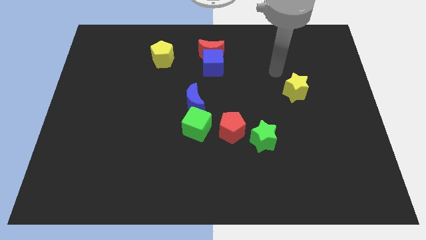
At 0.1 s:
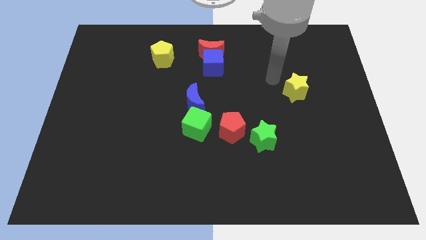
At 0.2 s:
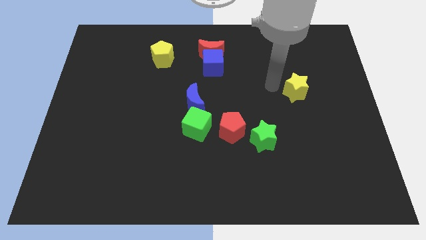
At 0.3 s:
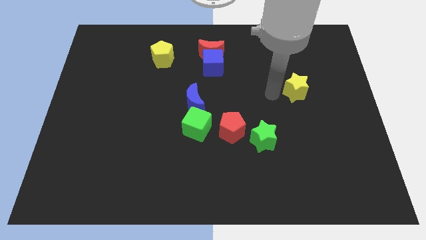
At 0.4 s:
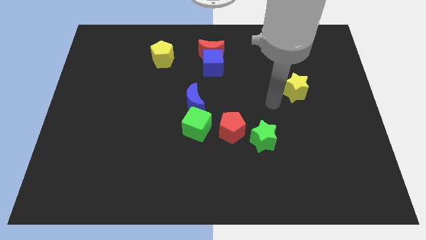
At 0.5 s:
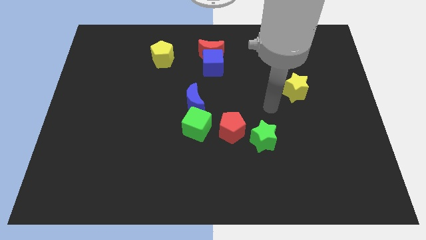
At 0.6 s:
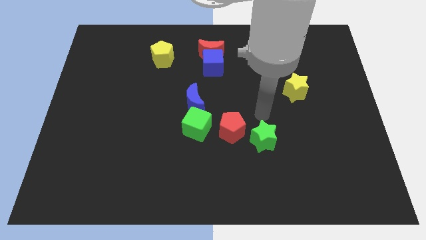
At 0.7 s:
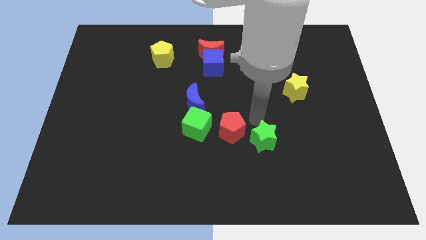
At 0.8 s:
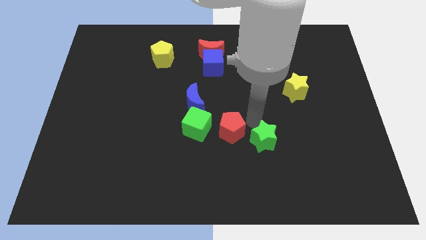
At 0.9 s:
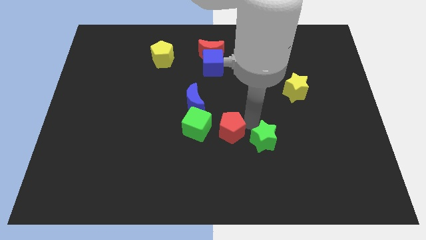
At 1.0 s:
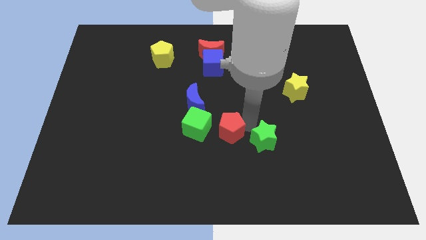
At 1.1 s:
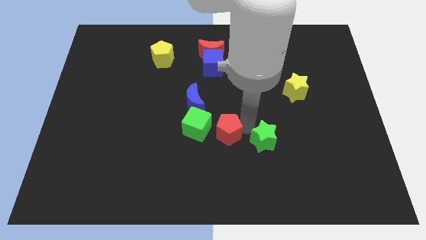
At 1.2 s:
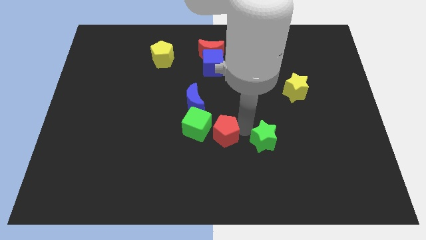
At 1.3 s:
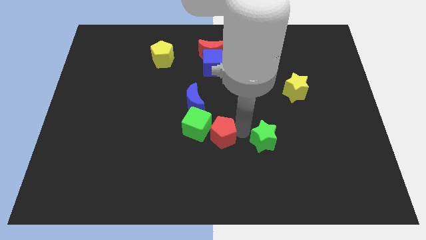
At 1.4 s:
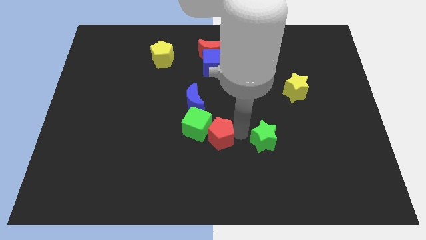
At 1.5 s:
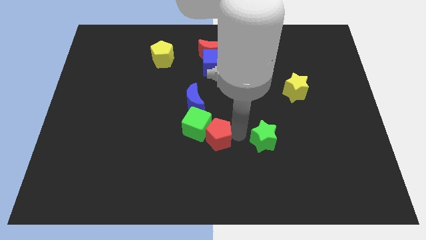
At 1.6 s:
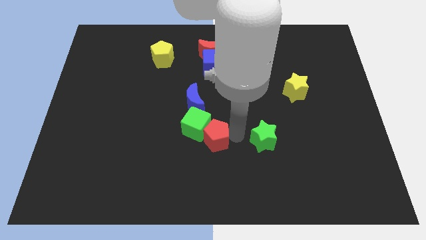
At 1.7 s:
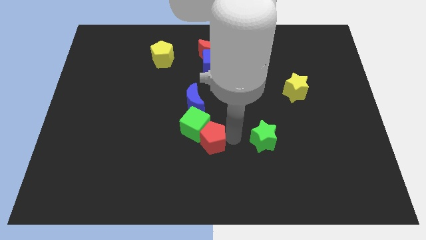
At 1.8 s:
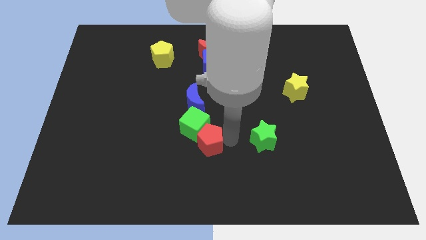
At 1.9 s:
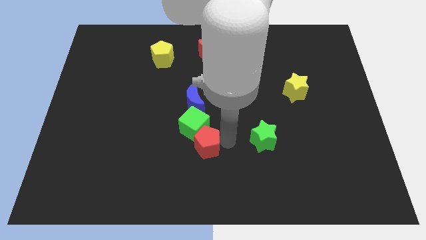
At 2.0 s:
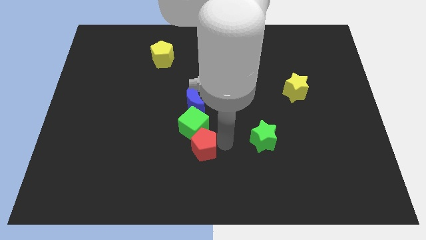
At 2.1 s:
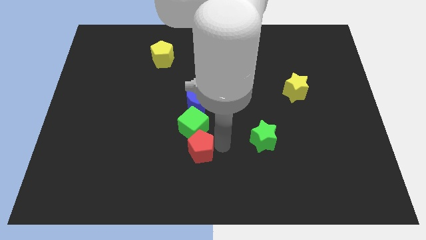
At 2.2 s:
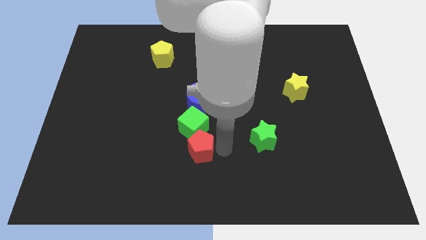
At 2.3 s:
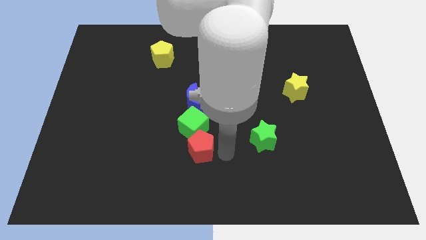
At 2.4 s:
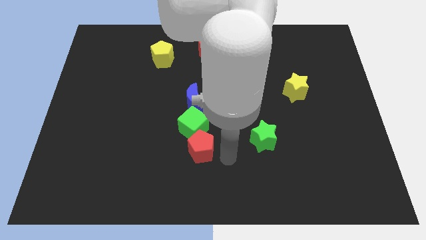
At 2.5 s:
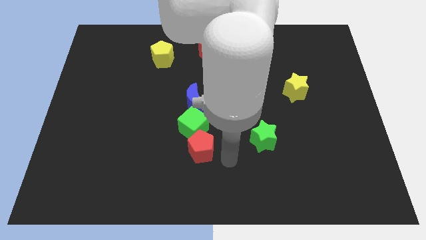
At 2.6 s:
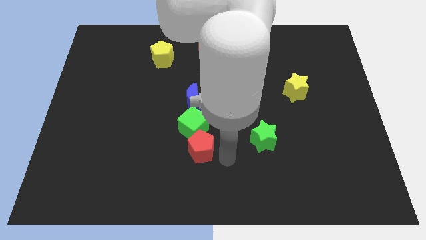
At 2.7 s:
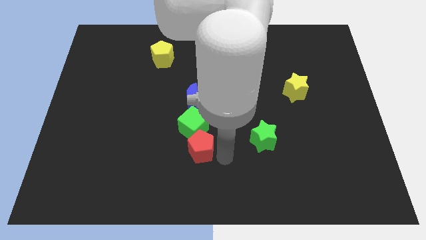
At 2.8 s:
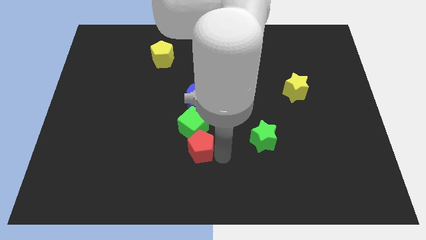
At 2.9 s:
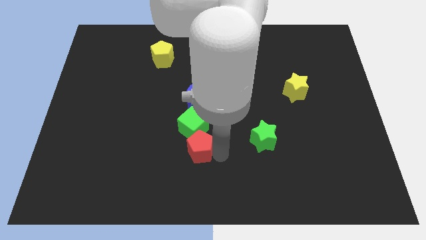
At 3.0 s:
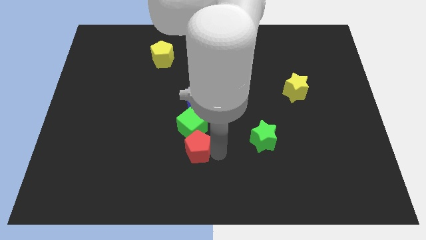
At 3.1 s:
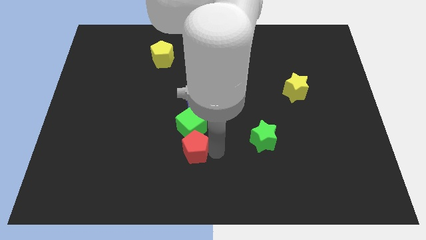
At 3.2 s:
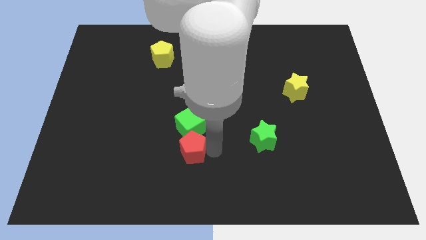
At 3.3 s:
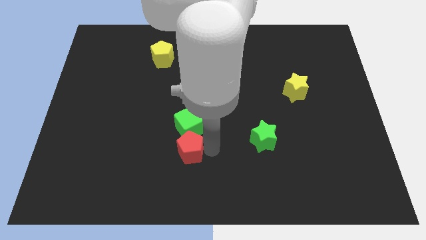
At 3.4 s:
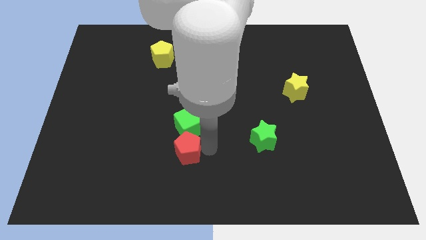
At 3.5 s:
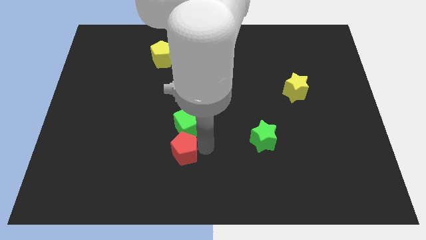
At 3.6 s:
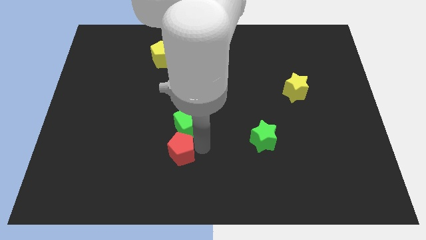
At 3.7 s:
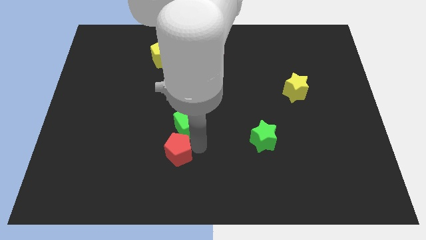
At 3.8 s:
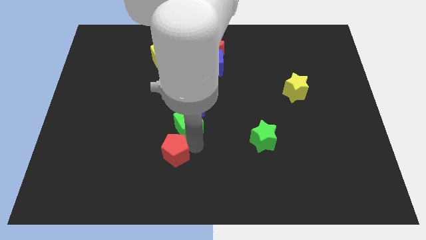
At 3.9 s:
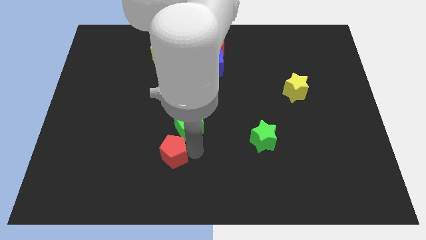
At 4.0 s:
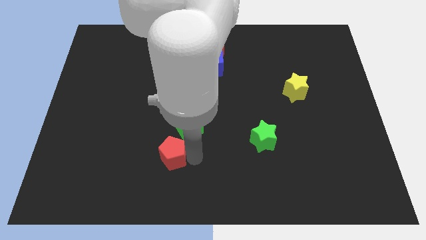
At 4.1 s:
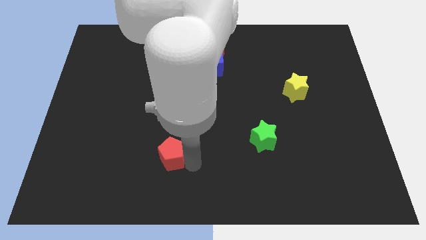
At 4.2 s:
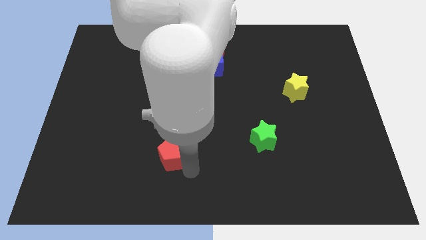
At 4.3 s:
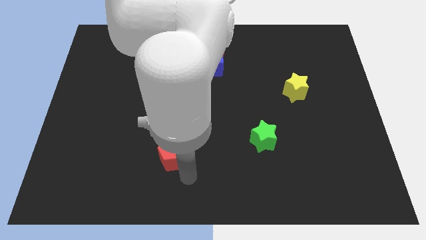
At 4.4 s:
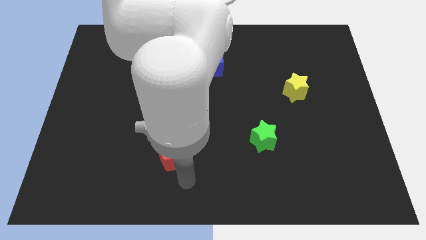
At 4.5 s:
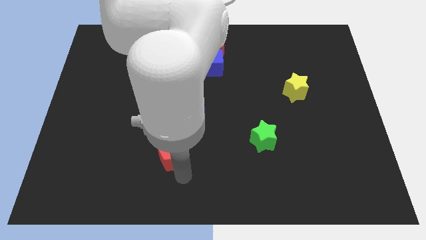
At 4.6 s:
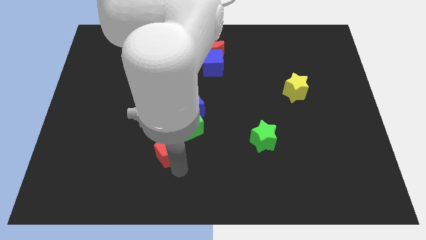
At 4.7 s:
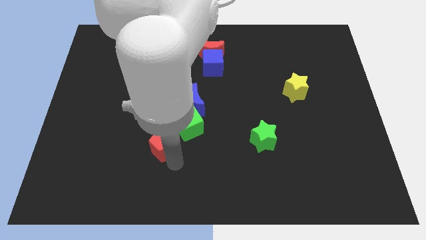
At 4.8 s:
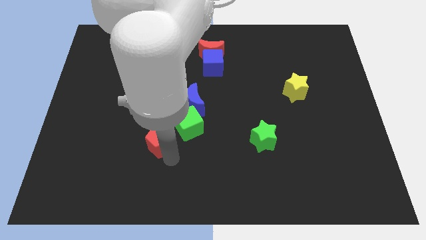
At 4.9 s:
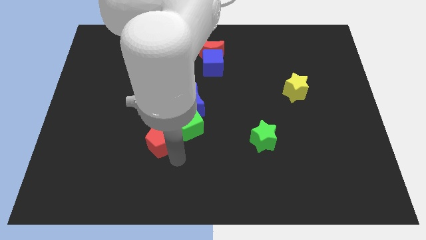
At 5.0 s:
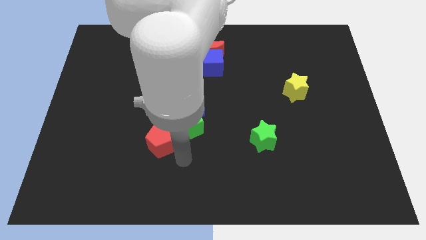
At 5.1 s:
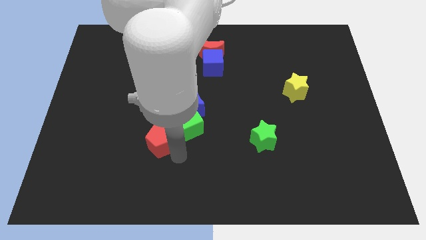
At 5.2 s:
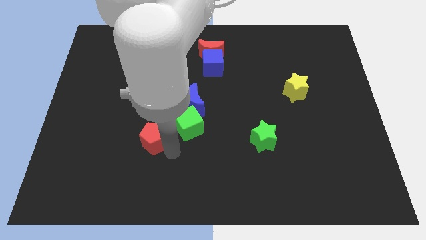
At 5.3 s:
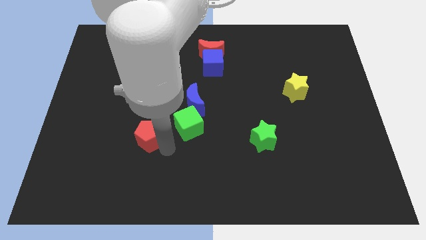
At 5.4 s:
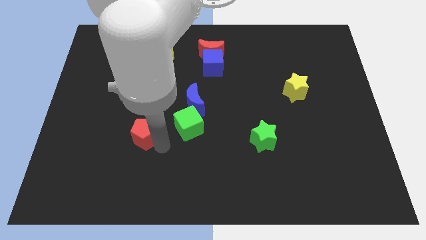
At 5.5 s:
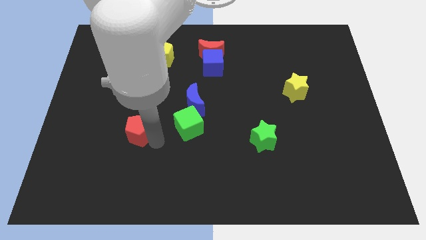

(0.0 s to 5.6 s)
move the red pentagon left

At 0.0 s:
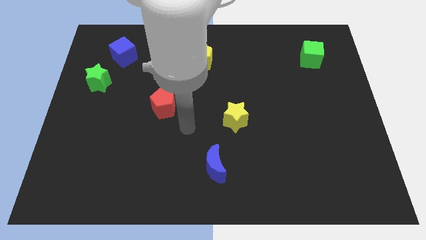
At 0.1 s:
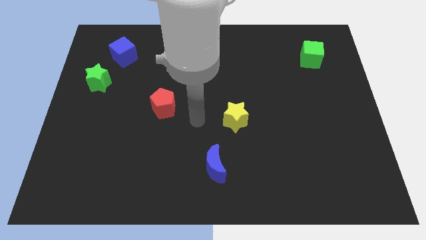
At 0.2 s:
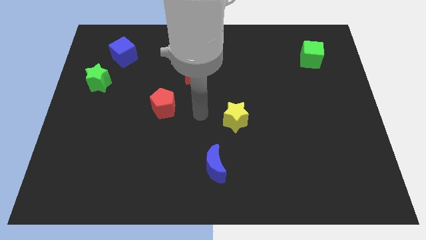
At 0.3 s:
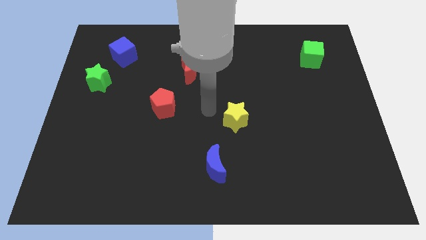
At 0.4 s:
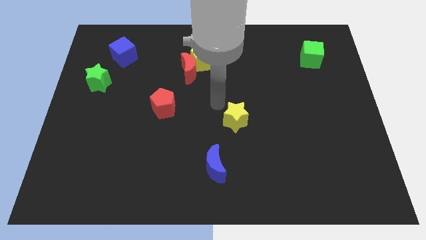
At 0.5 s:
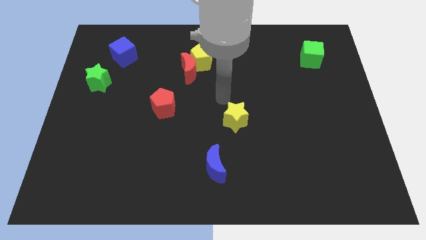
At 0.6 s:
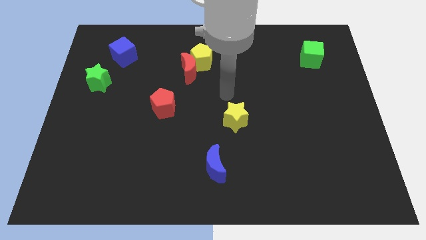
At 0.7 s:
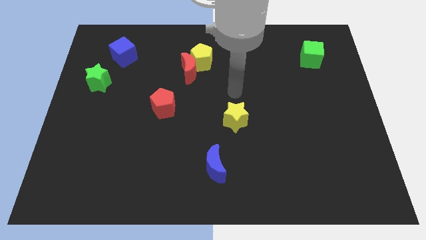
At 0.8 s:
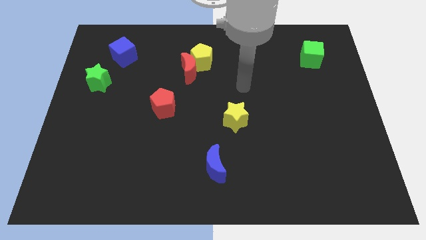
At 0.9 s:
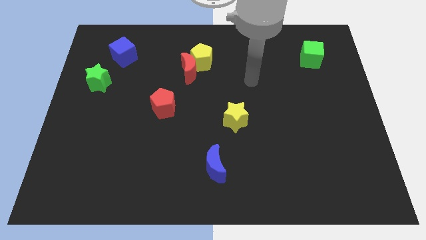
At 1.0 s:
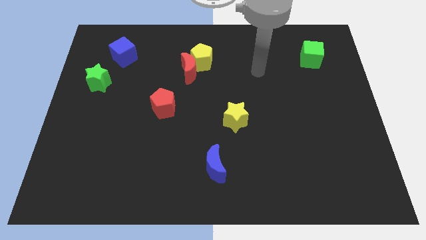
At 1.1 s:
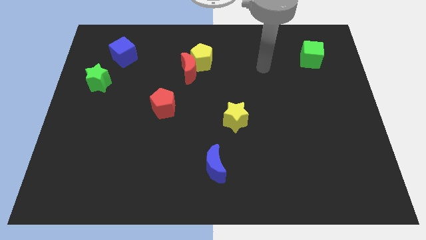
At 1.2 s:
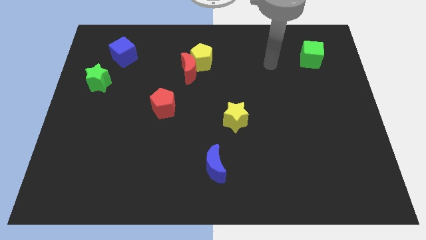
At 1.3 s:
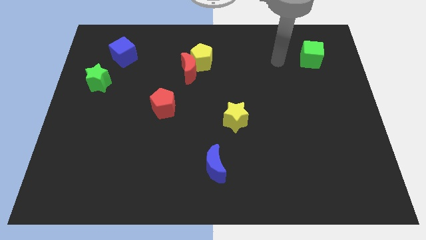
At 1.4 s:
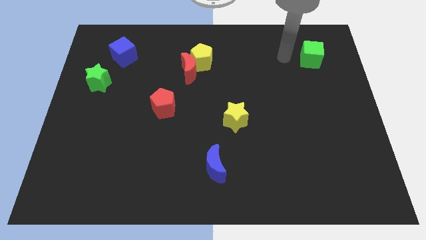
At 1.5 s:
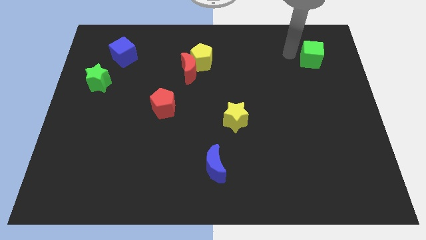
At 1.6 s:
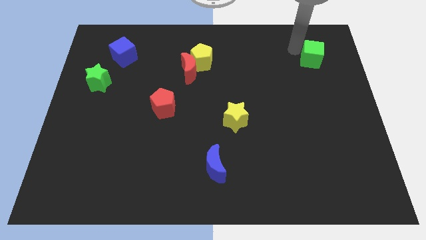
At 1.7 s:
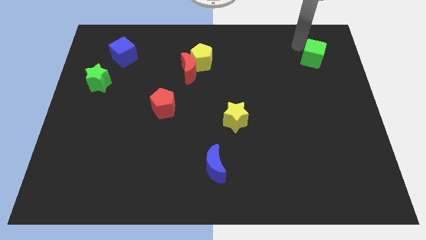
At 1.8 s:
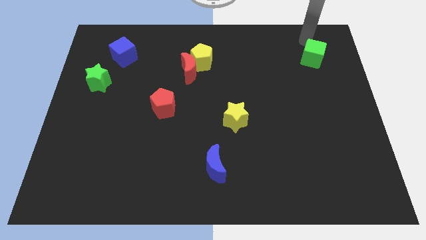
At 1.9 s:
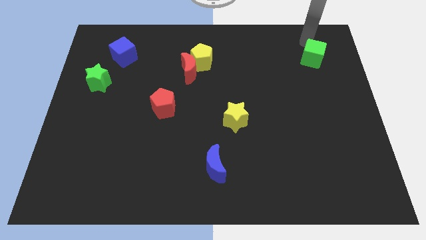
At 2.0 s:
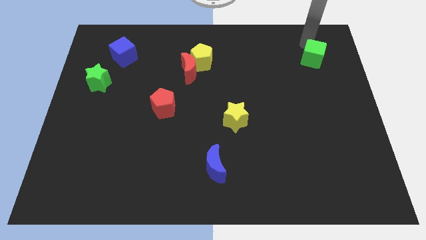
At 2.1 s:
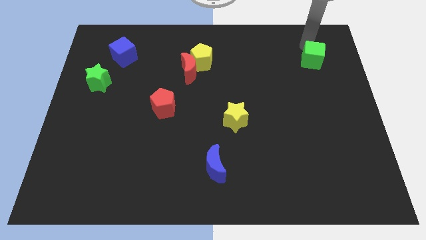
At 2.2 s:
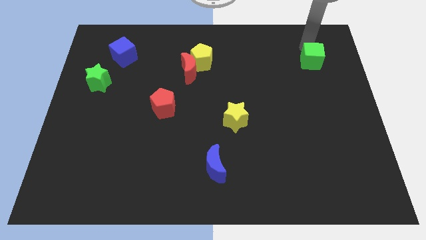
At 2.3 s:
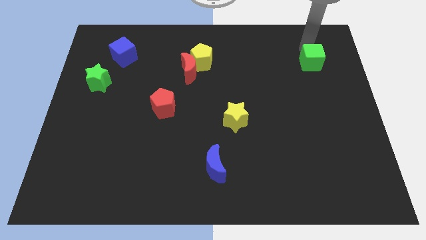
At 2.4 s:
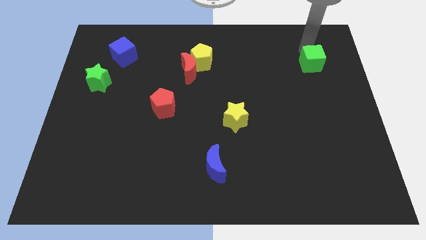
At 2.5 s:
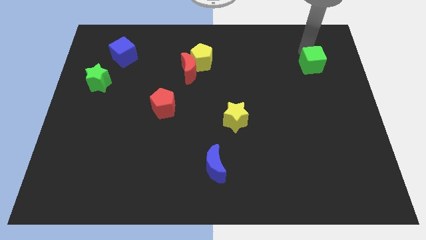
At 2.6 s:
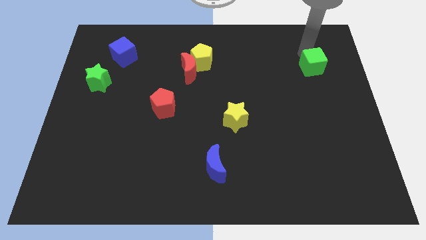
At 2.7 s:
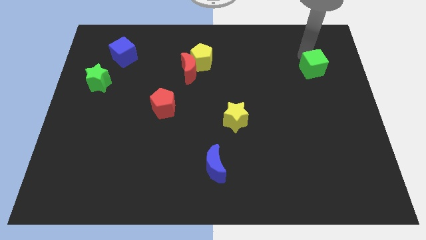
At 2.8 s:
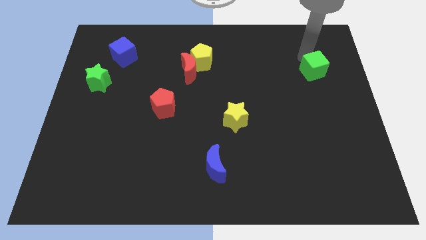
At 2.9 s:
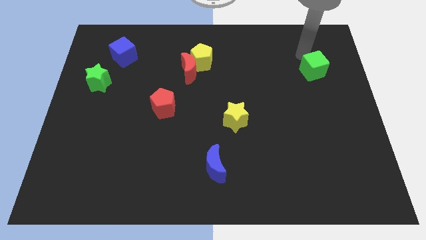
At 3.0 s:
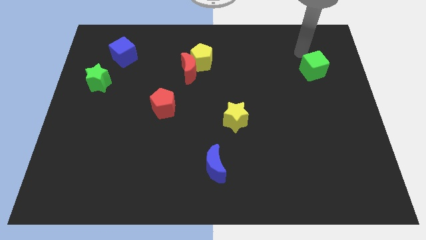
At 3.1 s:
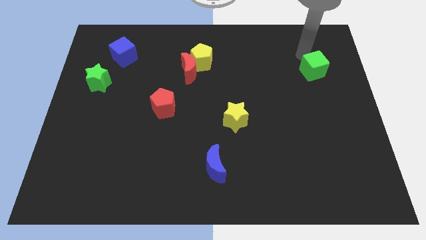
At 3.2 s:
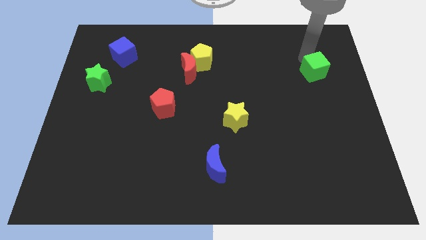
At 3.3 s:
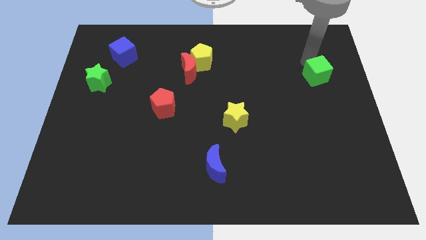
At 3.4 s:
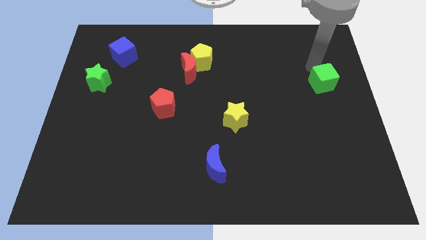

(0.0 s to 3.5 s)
move the green cube a bit downwards
